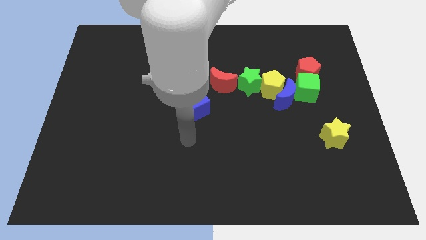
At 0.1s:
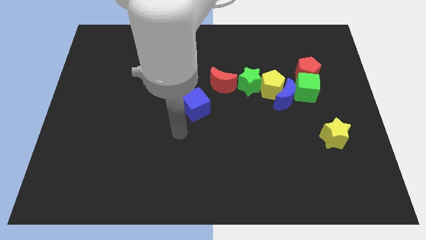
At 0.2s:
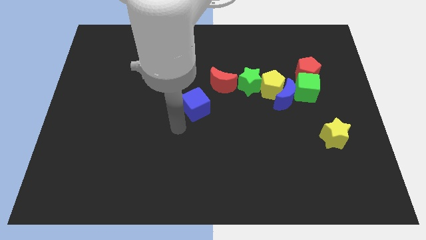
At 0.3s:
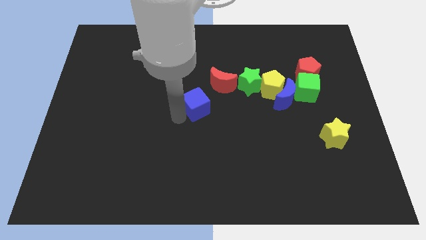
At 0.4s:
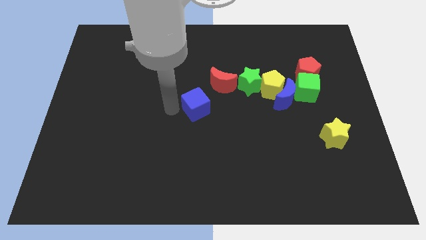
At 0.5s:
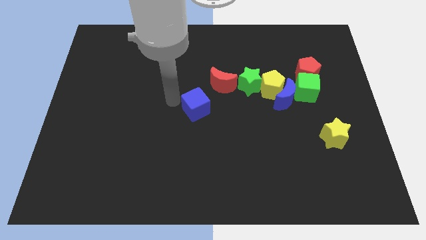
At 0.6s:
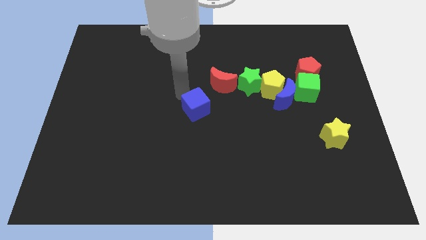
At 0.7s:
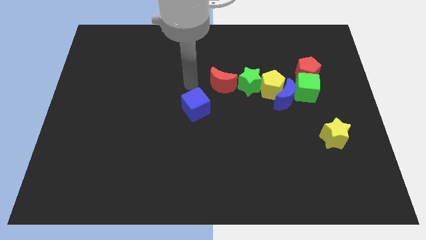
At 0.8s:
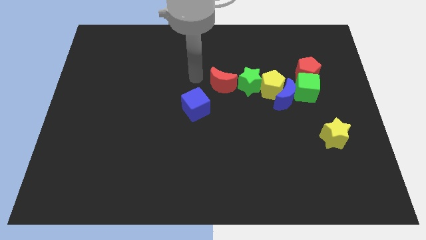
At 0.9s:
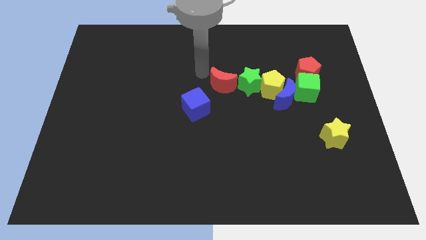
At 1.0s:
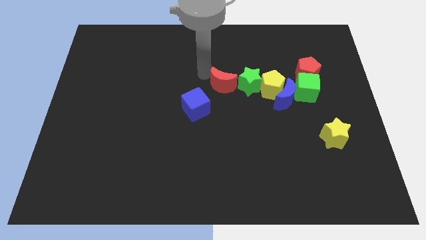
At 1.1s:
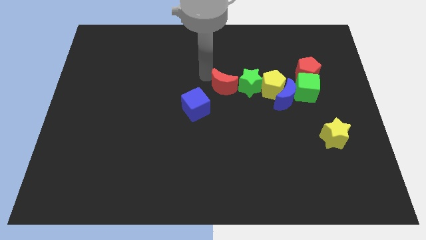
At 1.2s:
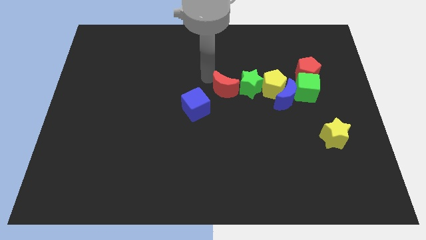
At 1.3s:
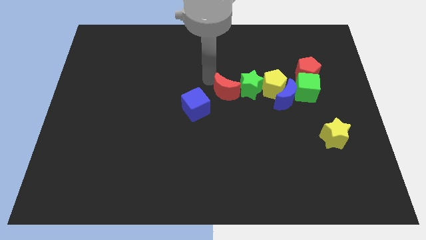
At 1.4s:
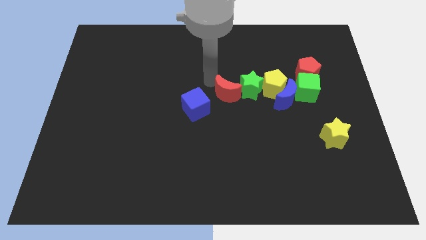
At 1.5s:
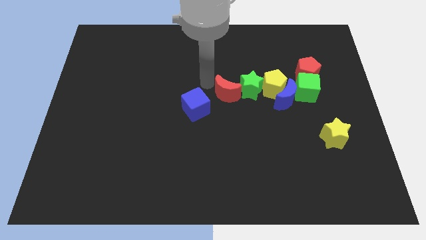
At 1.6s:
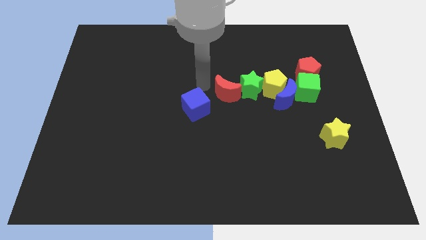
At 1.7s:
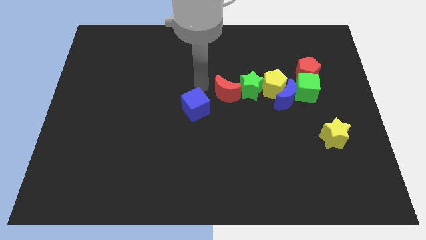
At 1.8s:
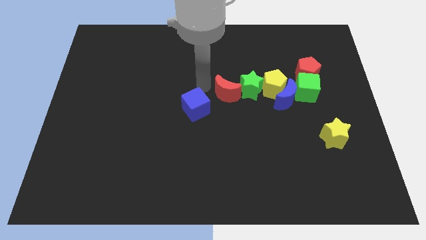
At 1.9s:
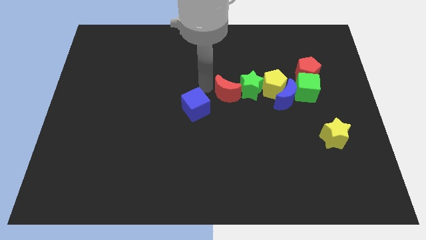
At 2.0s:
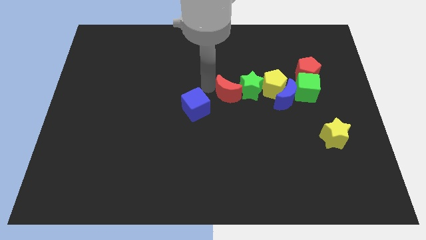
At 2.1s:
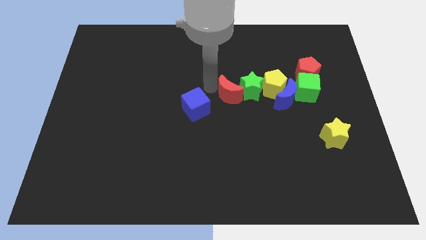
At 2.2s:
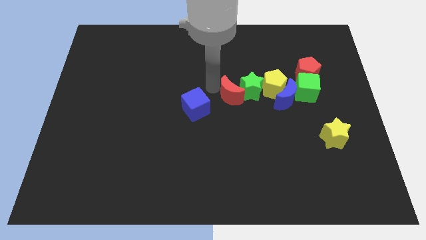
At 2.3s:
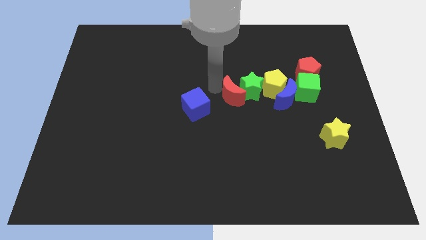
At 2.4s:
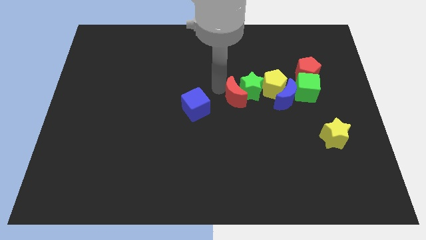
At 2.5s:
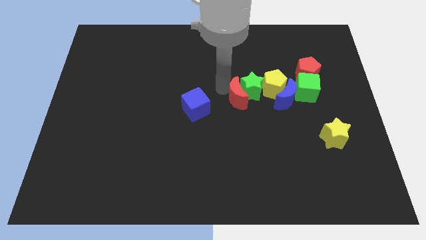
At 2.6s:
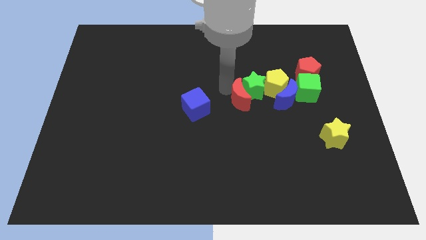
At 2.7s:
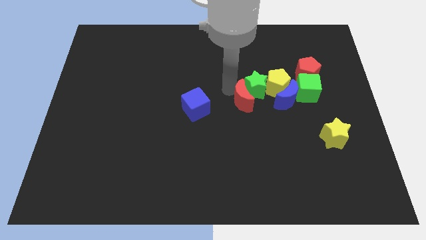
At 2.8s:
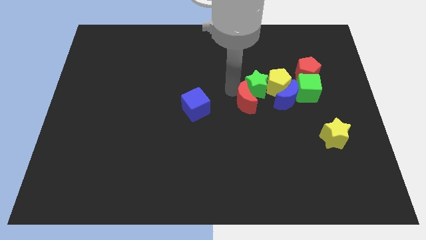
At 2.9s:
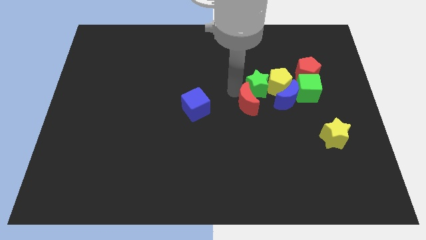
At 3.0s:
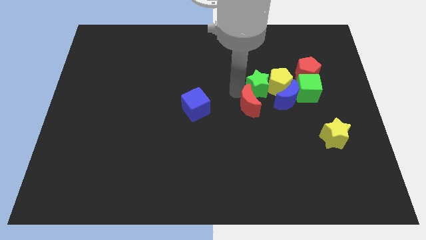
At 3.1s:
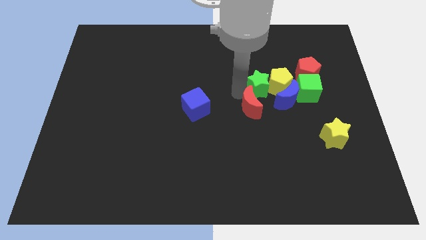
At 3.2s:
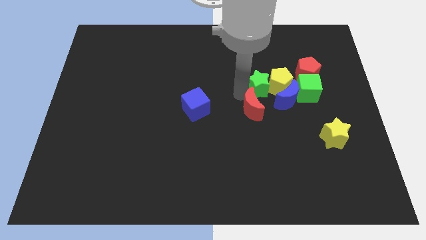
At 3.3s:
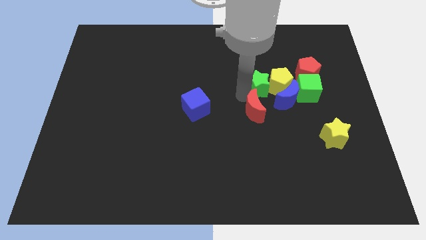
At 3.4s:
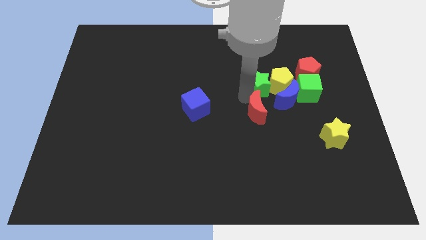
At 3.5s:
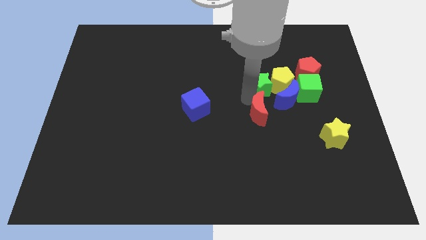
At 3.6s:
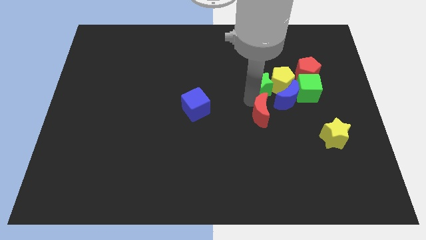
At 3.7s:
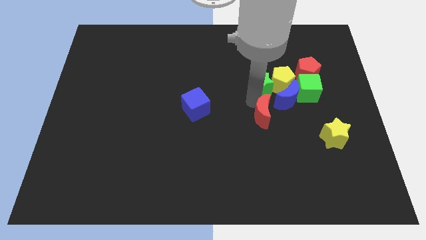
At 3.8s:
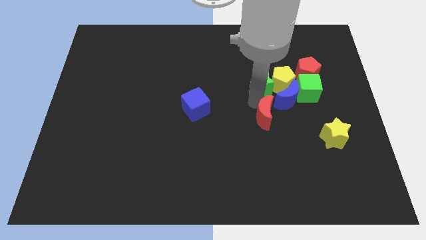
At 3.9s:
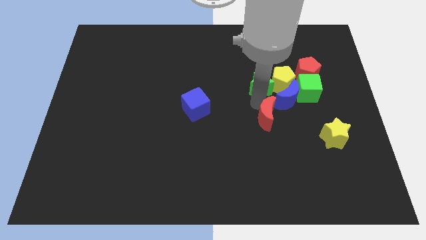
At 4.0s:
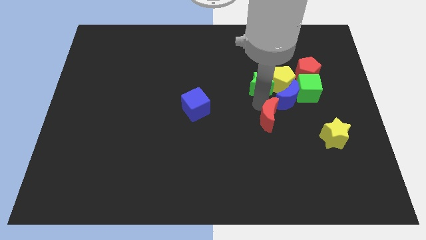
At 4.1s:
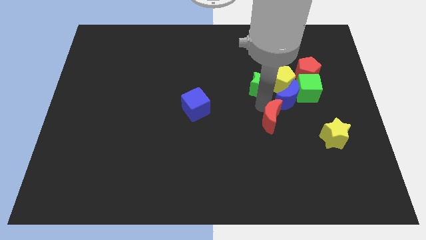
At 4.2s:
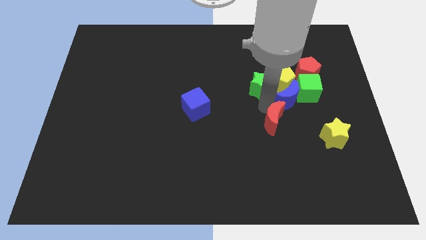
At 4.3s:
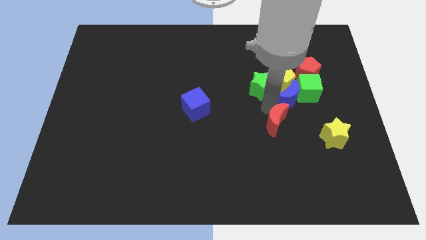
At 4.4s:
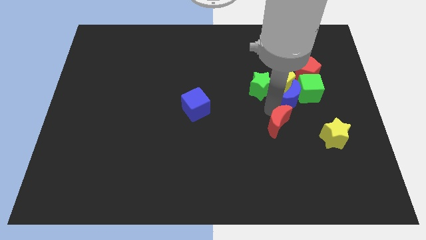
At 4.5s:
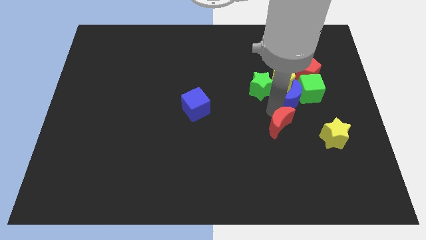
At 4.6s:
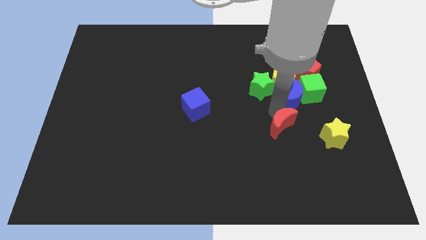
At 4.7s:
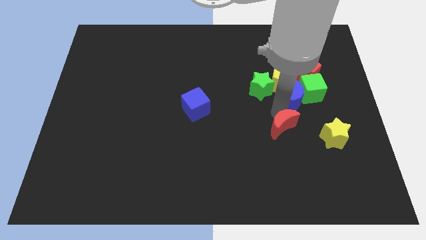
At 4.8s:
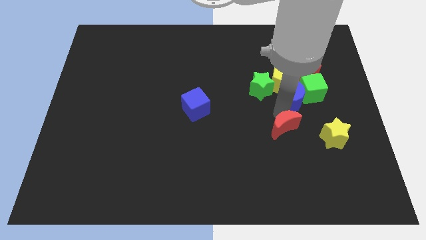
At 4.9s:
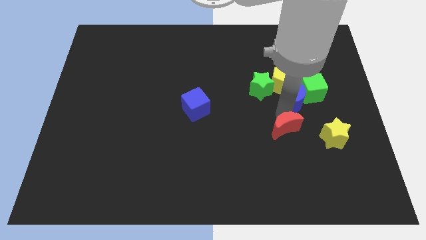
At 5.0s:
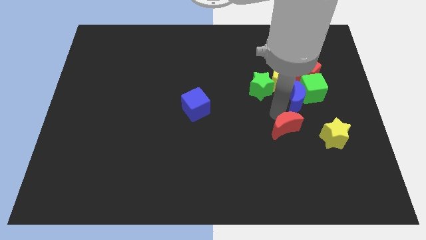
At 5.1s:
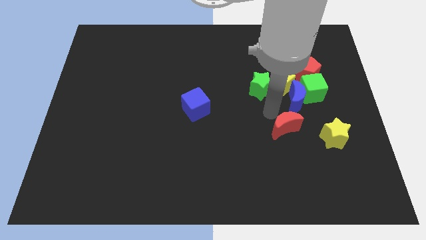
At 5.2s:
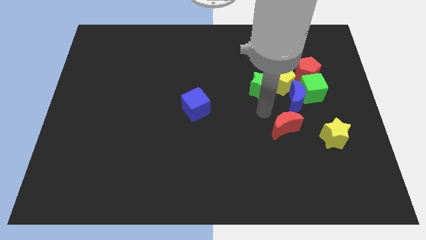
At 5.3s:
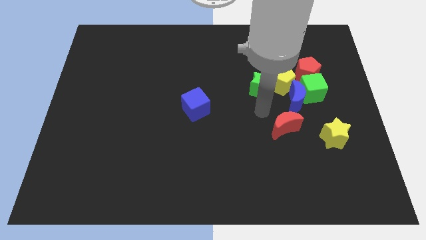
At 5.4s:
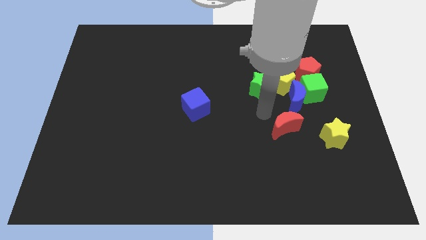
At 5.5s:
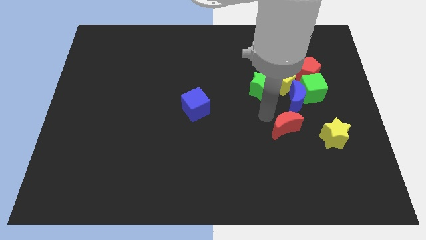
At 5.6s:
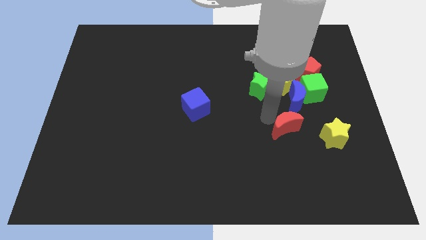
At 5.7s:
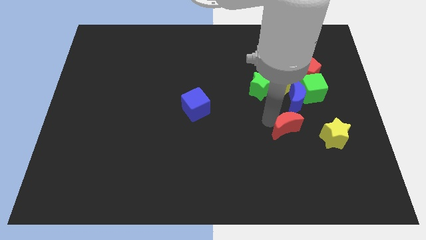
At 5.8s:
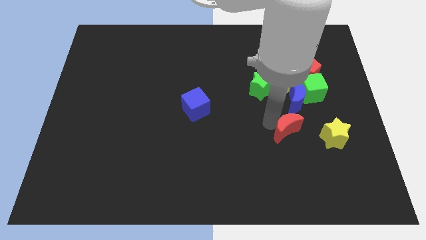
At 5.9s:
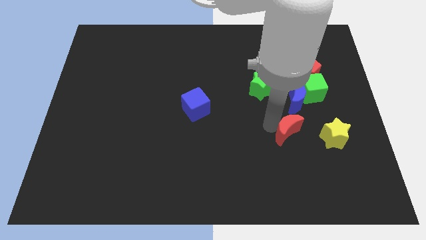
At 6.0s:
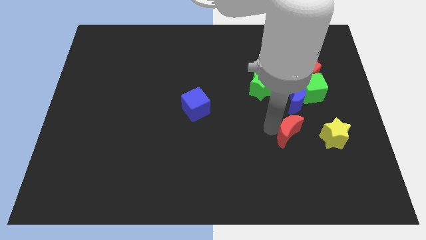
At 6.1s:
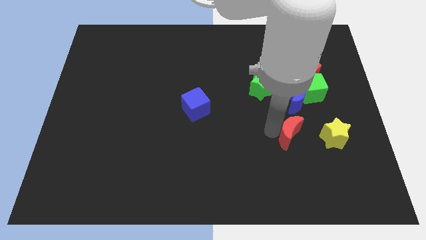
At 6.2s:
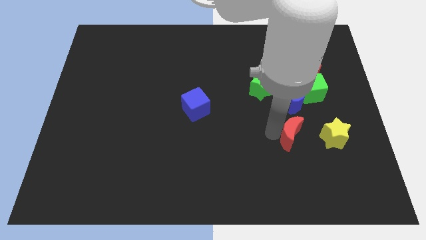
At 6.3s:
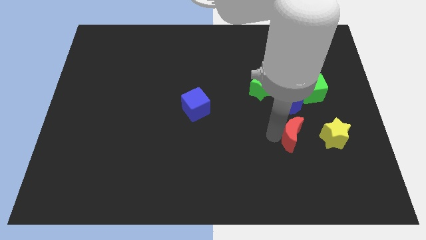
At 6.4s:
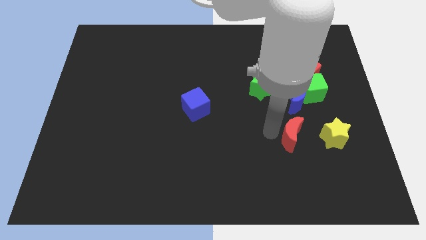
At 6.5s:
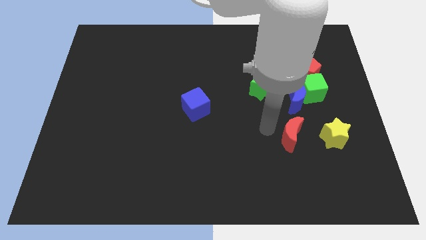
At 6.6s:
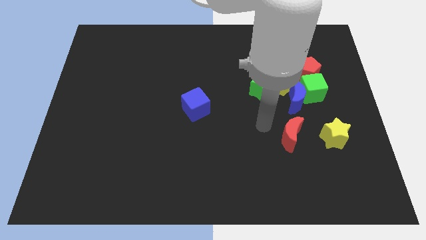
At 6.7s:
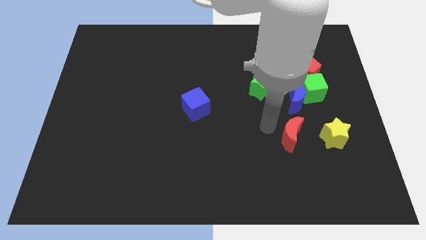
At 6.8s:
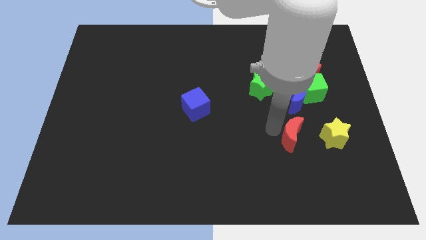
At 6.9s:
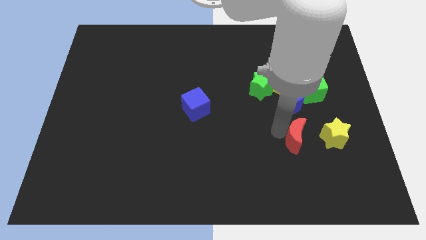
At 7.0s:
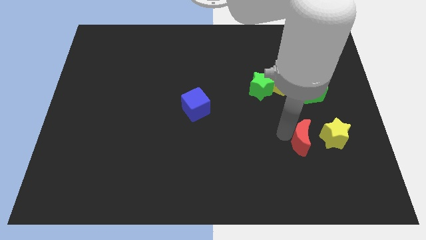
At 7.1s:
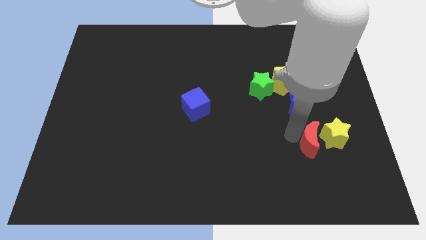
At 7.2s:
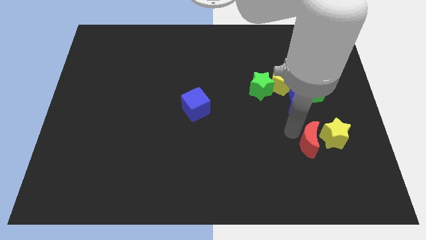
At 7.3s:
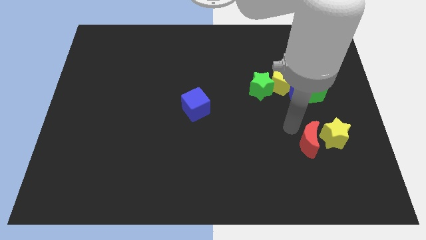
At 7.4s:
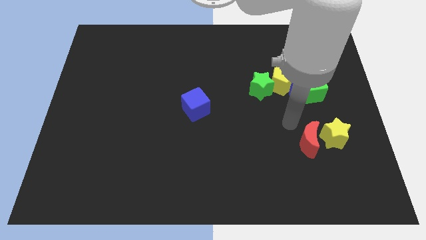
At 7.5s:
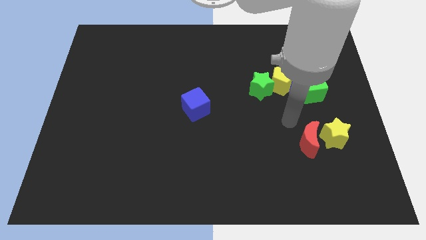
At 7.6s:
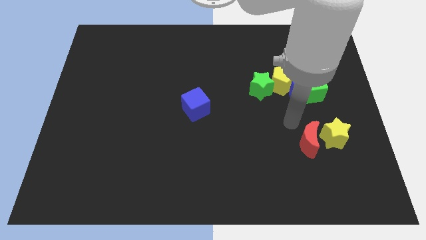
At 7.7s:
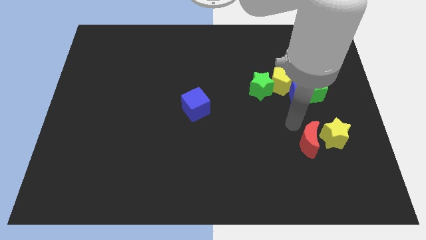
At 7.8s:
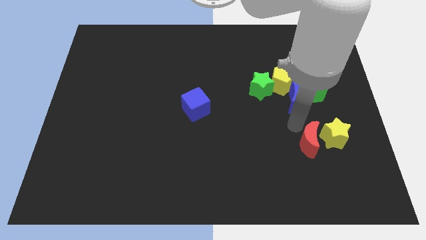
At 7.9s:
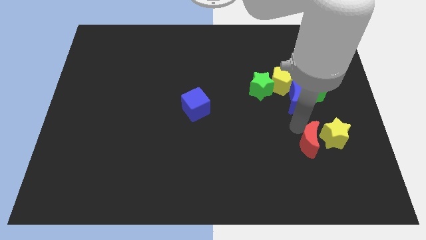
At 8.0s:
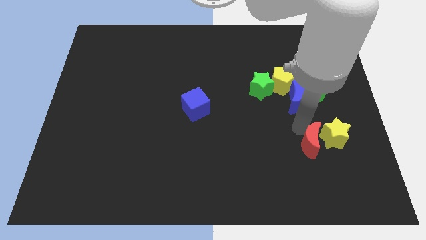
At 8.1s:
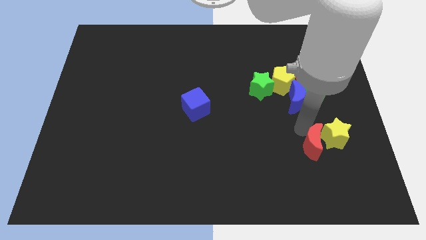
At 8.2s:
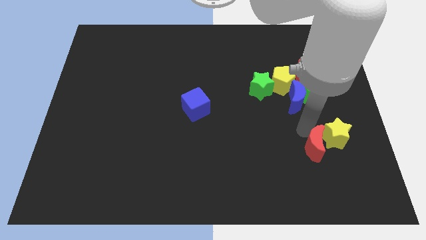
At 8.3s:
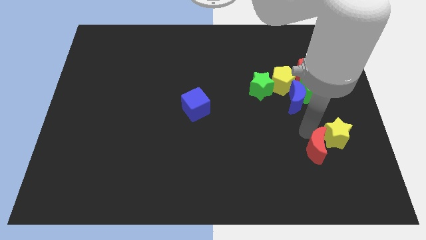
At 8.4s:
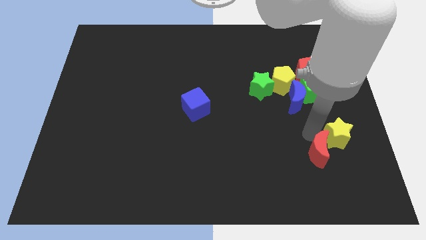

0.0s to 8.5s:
put the red moon to the bottom side of the yellow star
